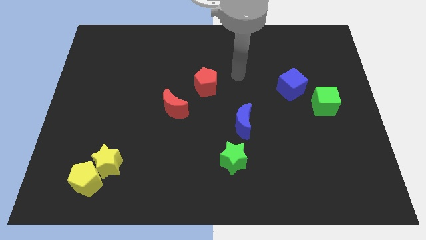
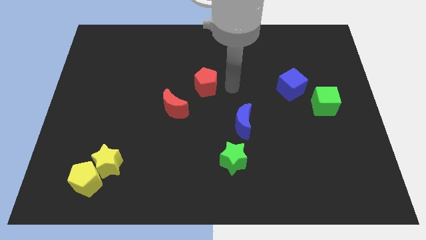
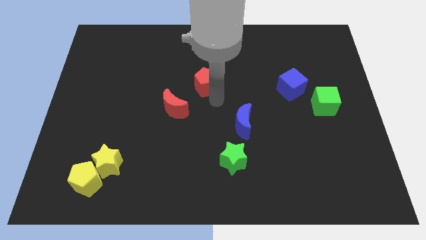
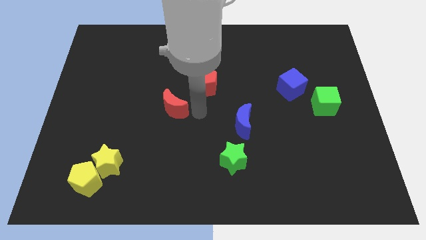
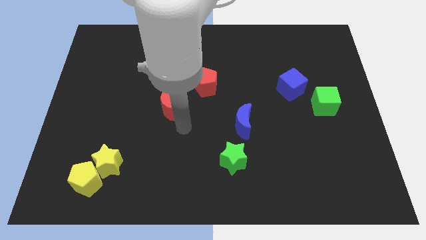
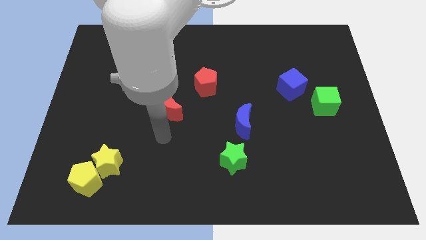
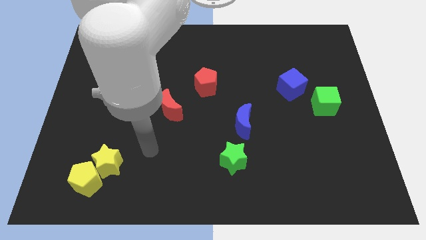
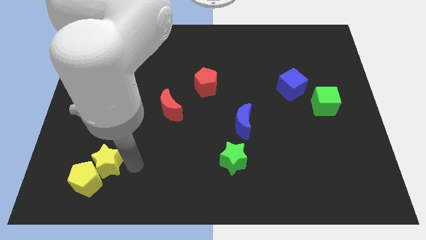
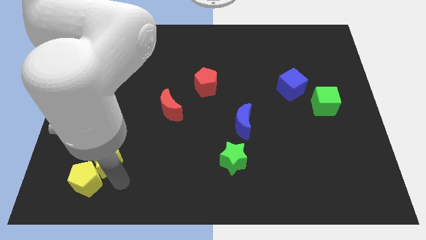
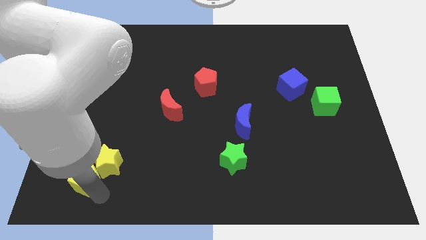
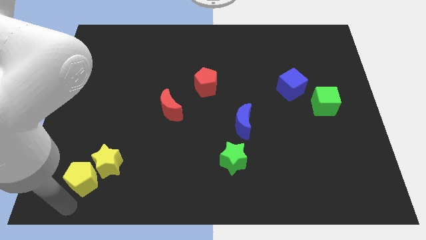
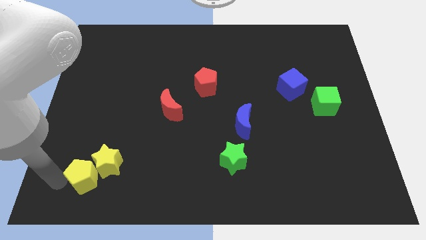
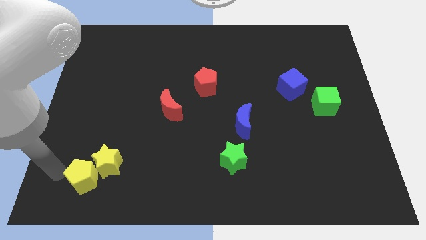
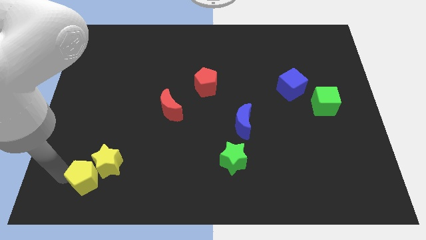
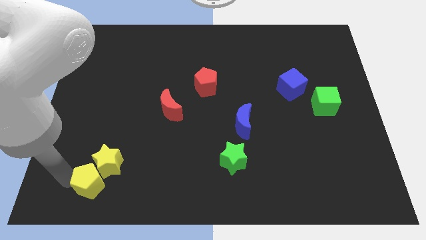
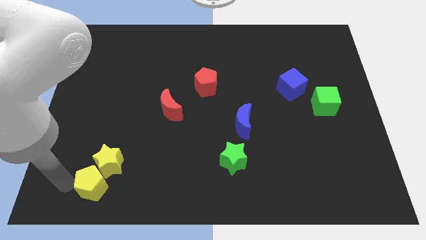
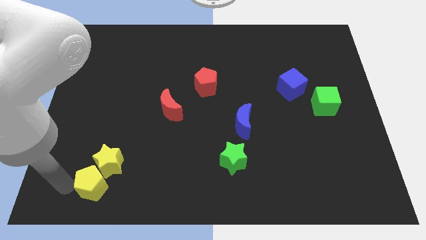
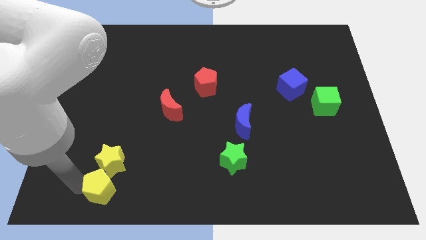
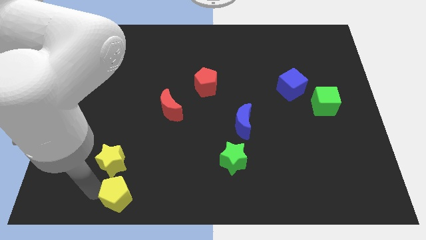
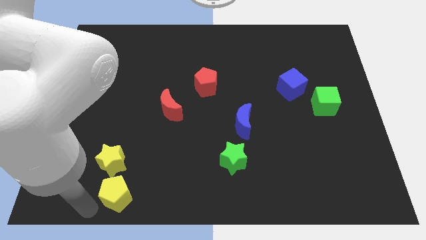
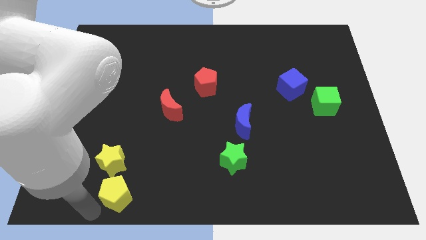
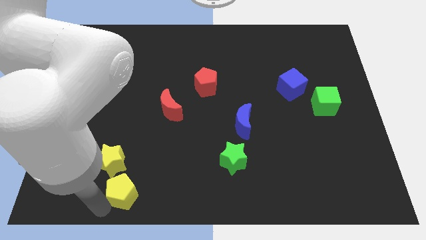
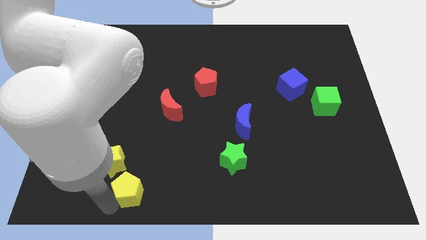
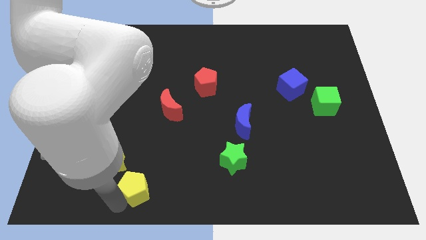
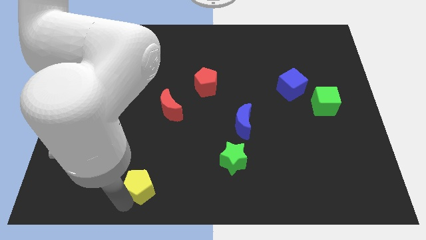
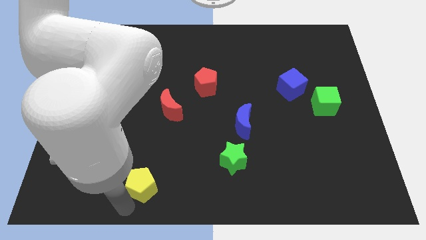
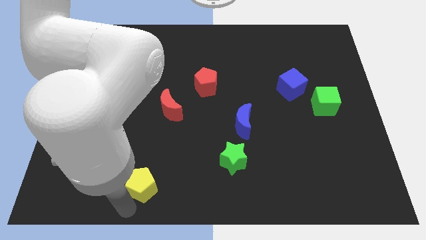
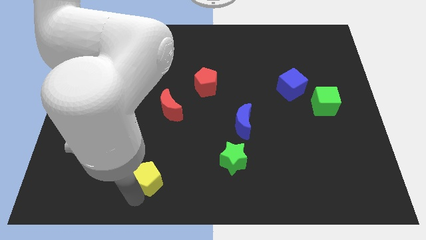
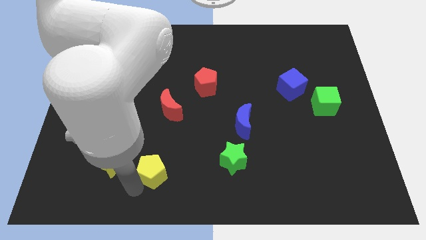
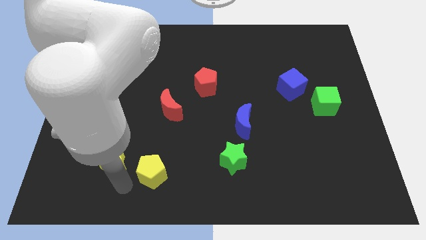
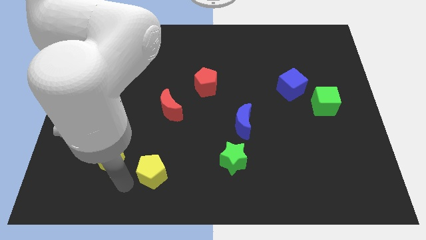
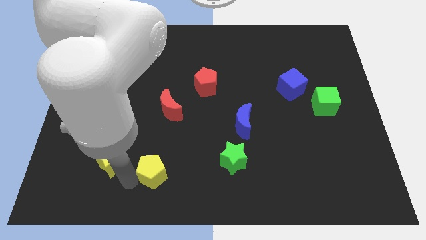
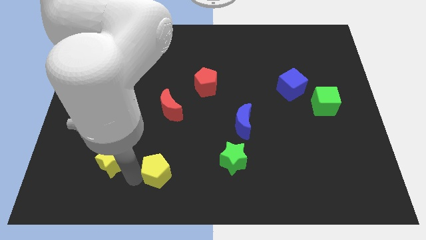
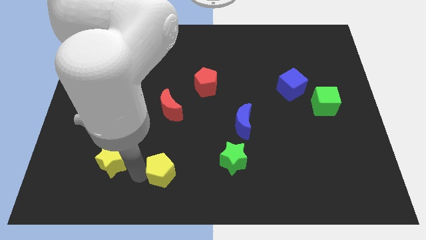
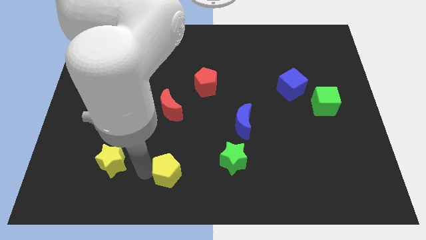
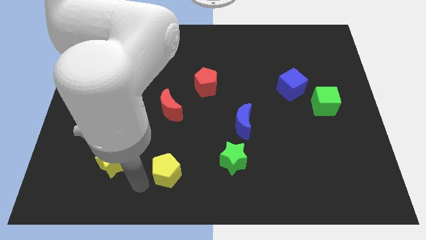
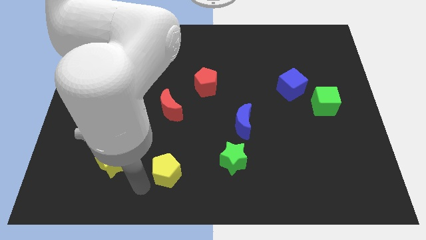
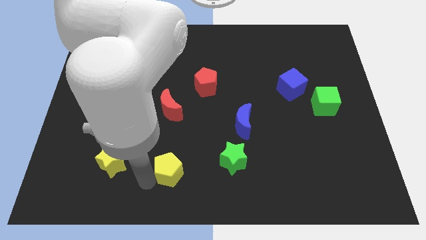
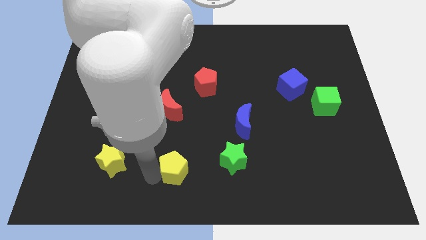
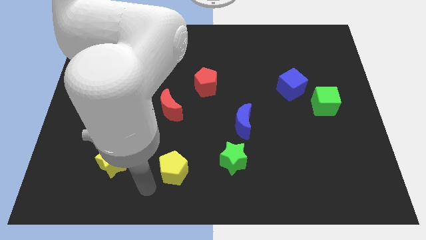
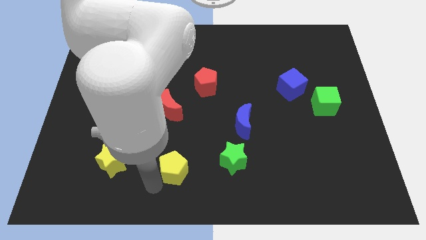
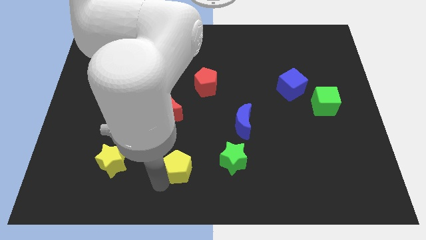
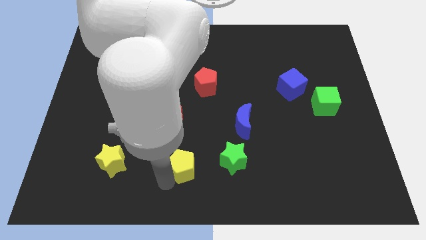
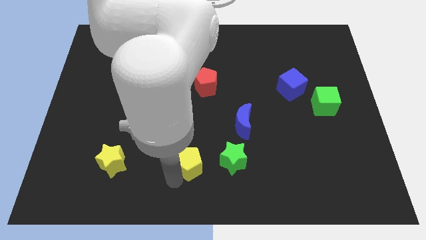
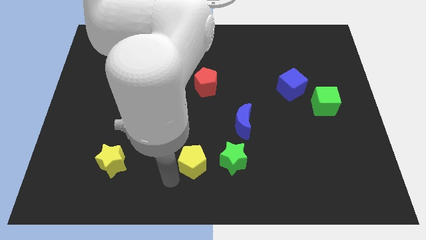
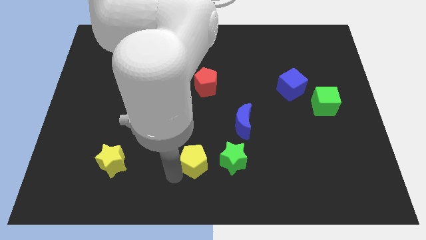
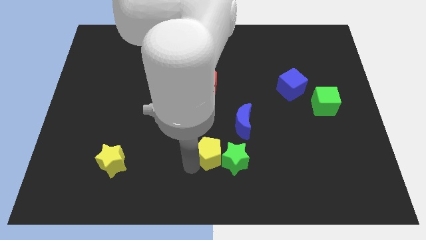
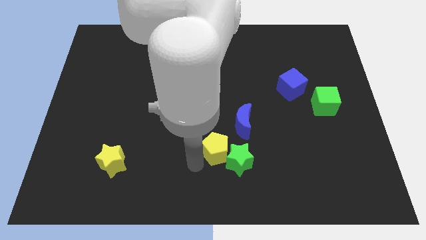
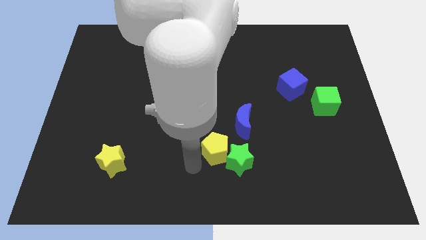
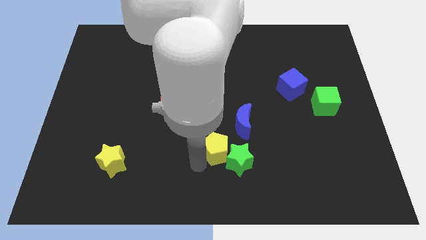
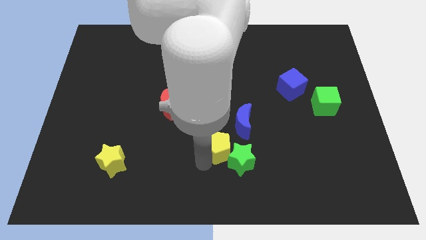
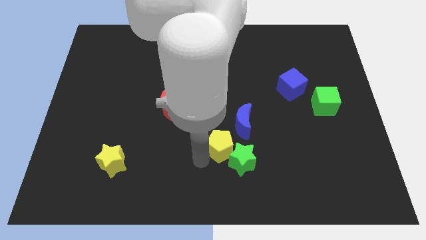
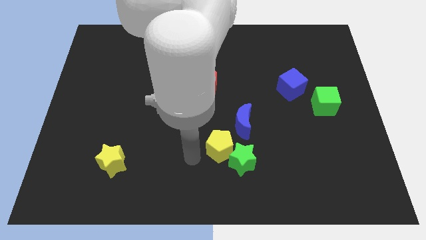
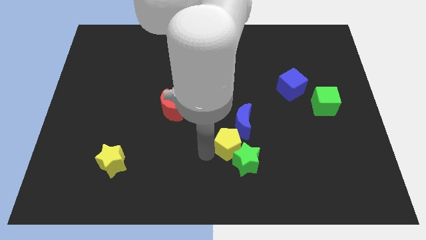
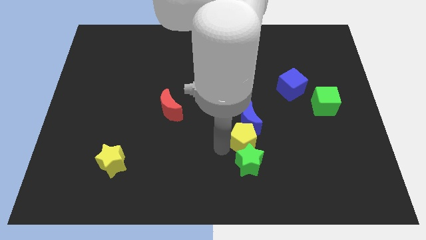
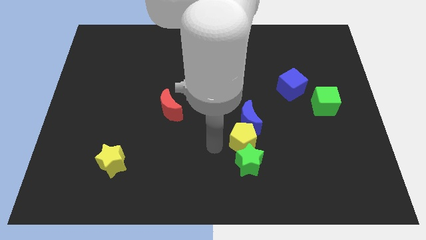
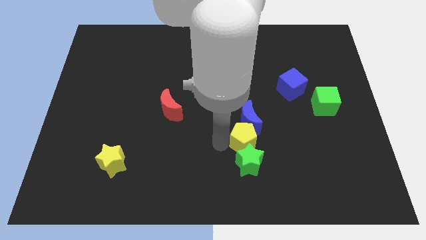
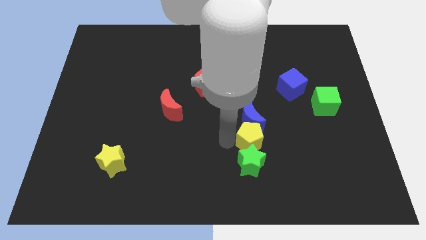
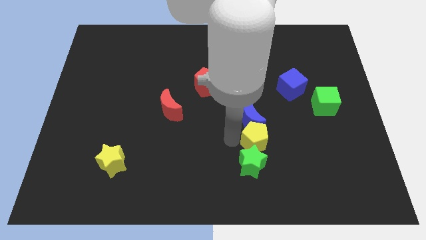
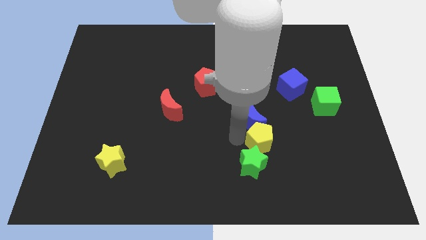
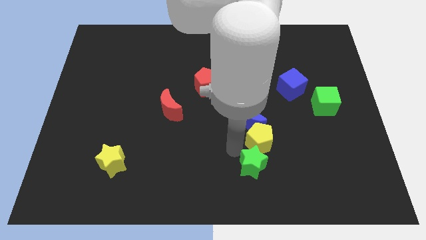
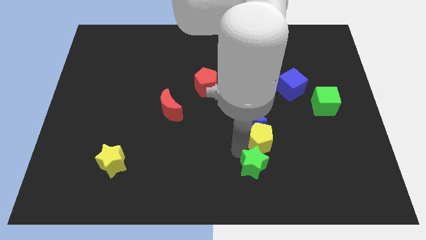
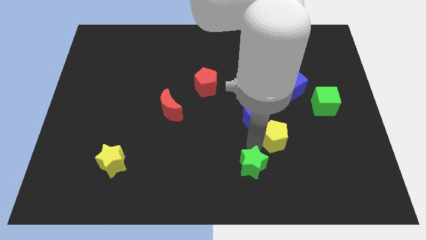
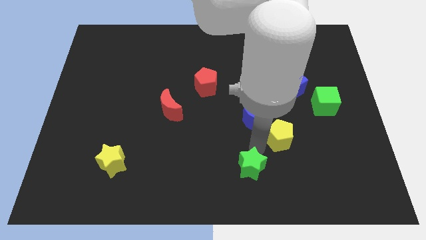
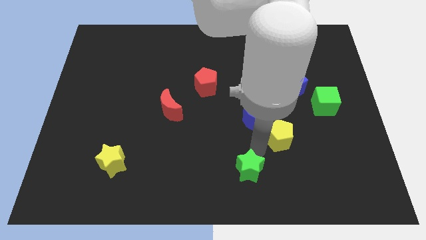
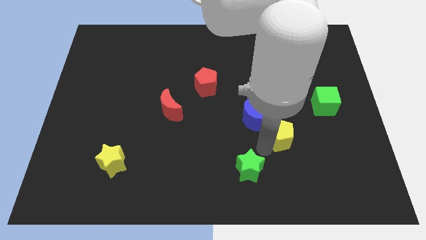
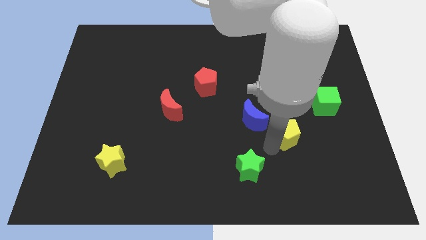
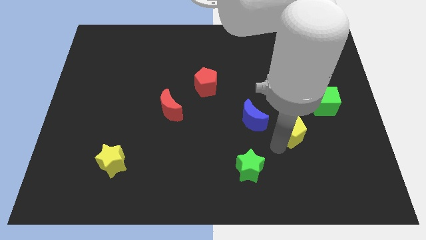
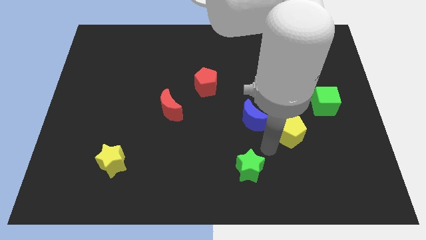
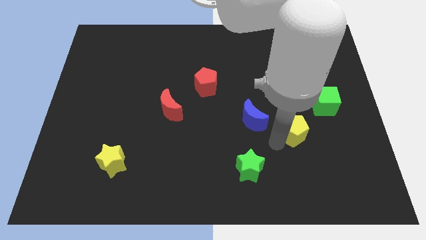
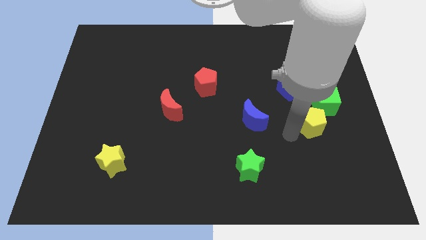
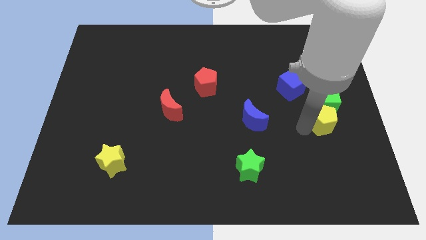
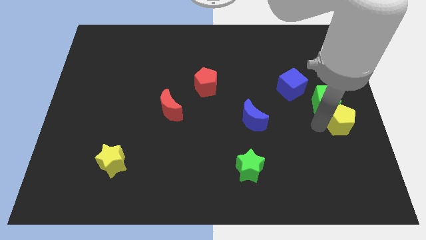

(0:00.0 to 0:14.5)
slide the yellow pentagon to the right side
